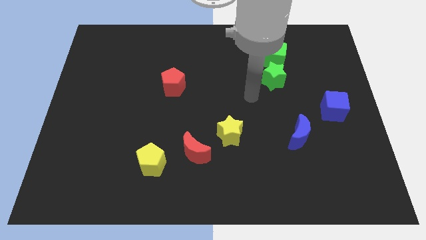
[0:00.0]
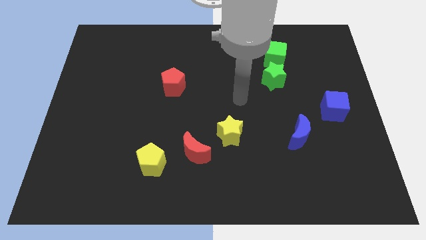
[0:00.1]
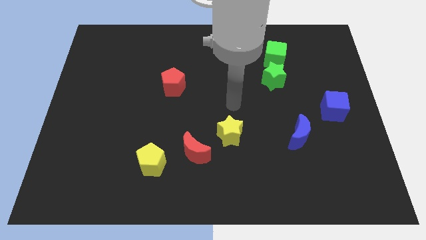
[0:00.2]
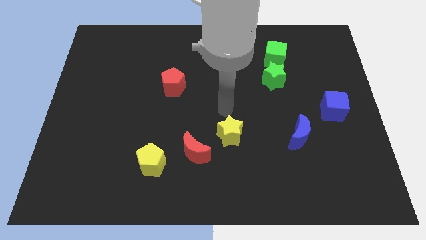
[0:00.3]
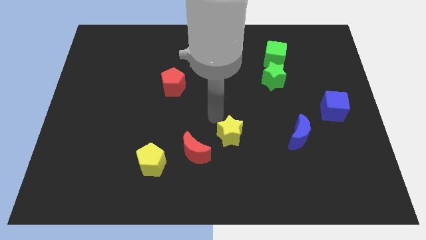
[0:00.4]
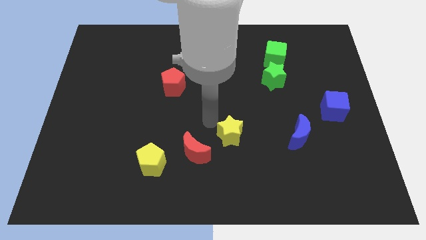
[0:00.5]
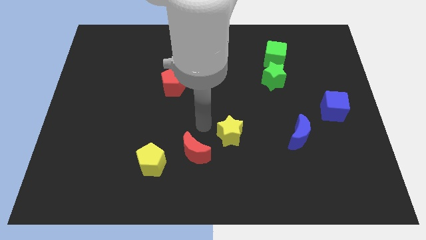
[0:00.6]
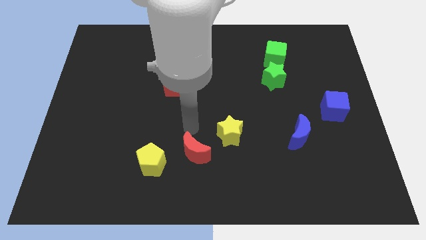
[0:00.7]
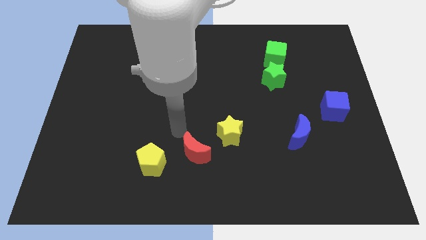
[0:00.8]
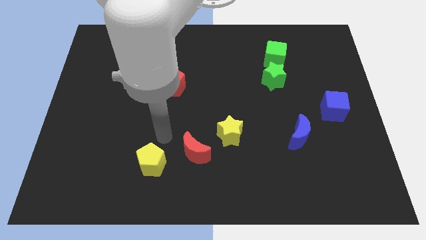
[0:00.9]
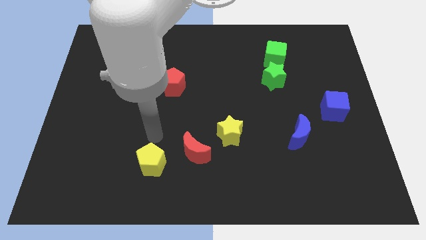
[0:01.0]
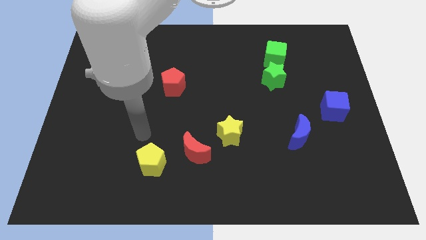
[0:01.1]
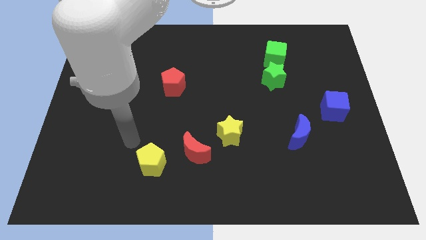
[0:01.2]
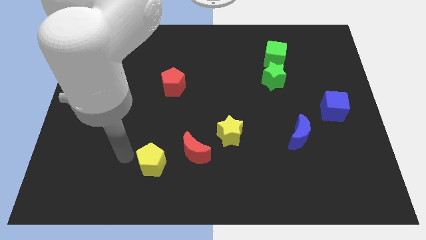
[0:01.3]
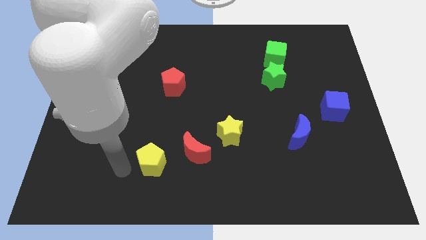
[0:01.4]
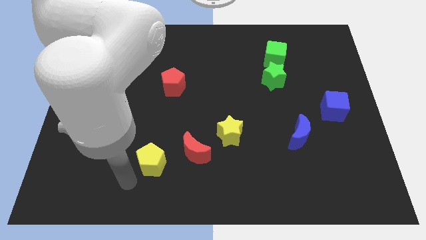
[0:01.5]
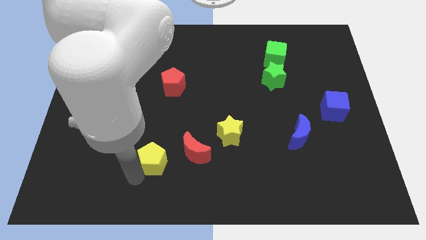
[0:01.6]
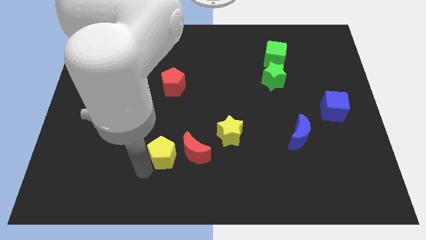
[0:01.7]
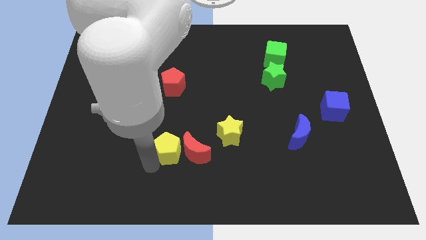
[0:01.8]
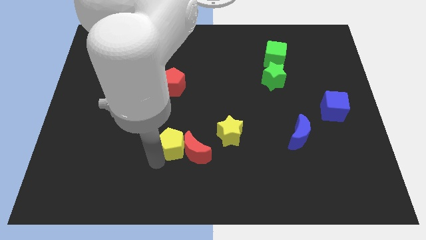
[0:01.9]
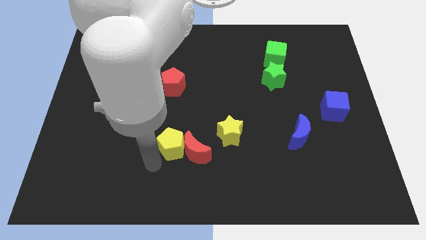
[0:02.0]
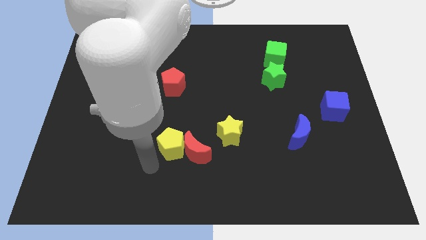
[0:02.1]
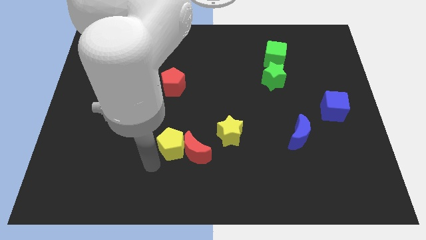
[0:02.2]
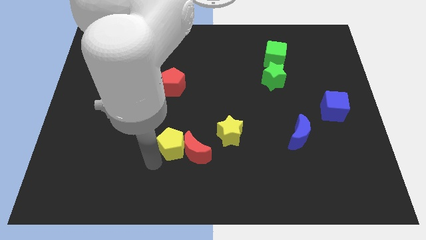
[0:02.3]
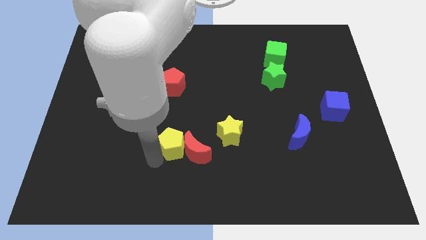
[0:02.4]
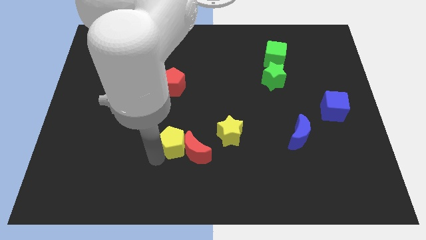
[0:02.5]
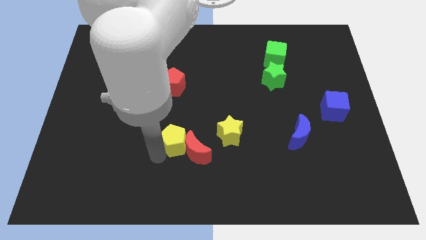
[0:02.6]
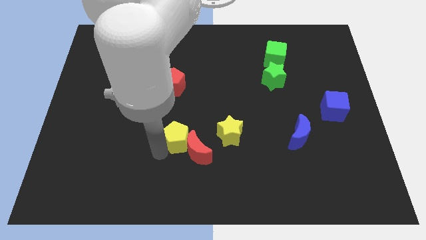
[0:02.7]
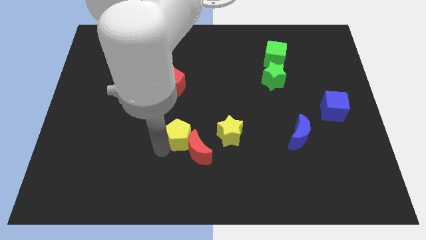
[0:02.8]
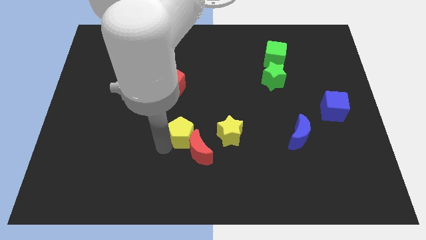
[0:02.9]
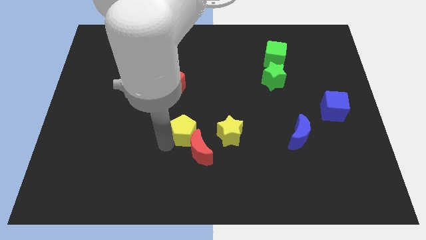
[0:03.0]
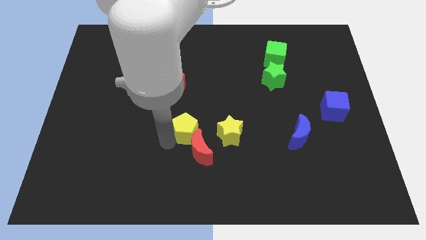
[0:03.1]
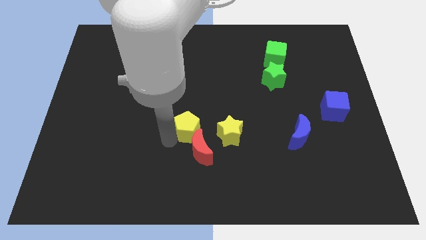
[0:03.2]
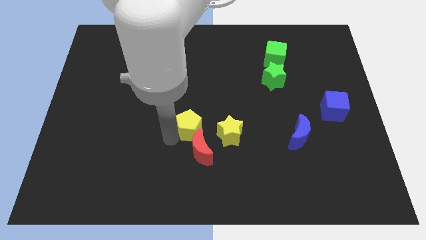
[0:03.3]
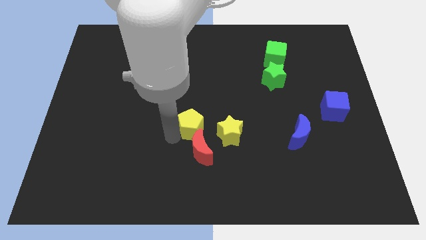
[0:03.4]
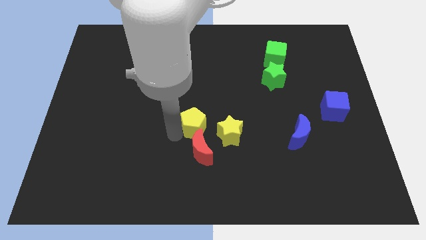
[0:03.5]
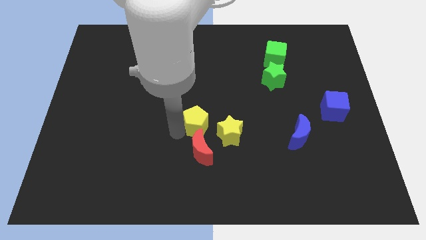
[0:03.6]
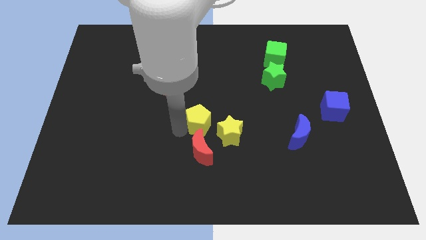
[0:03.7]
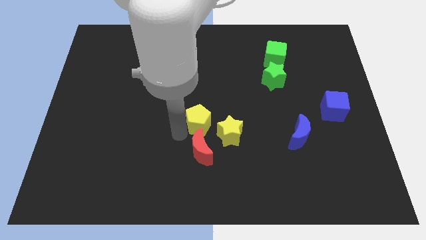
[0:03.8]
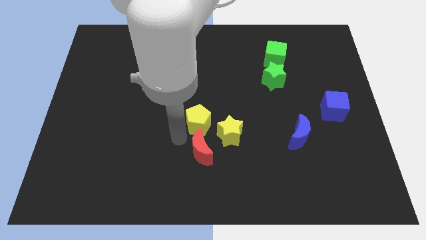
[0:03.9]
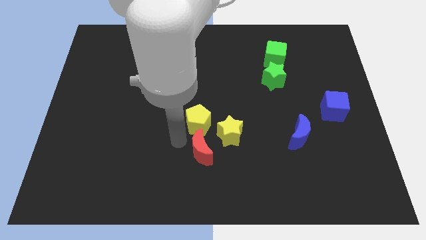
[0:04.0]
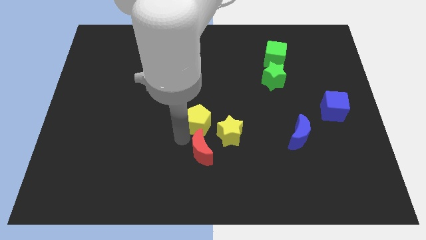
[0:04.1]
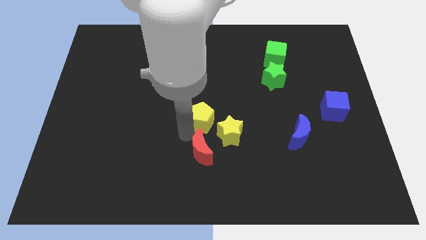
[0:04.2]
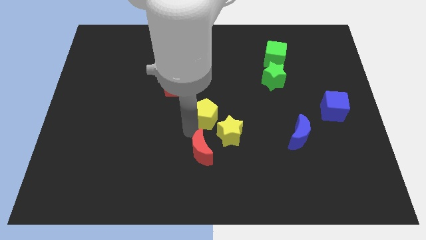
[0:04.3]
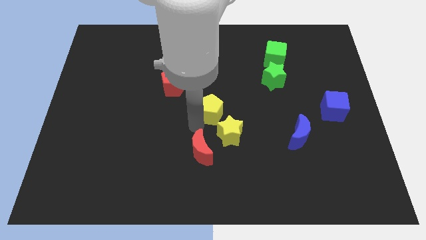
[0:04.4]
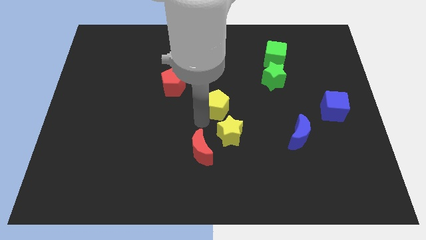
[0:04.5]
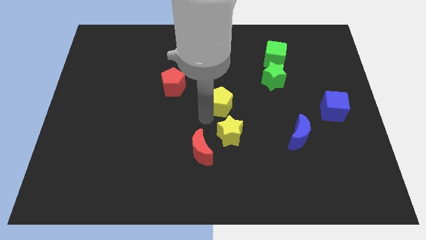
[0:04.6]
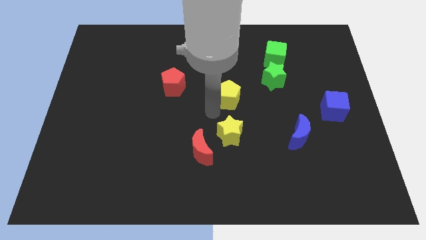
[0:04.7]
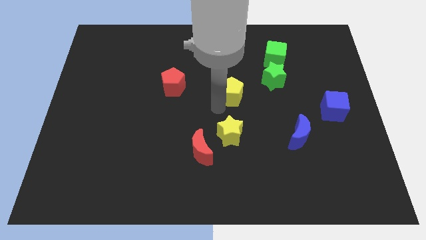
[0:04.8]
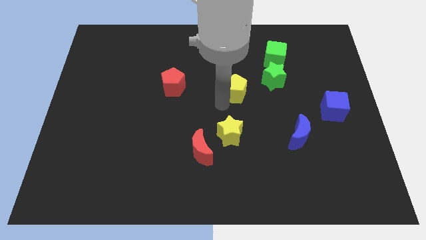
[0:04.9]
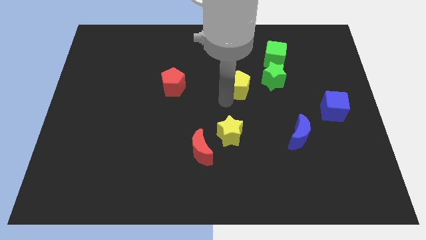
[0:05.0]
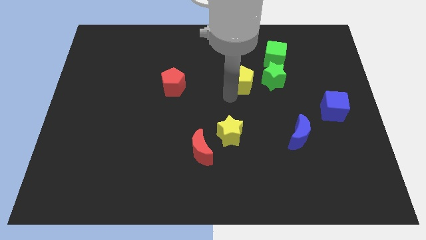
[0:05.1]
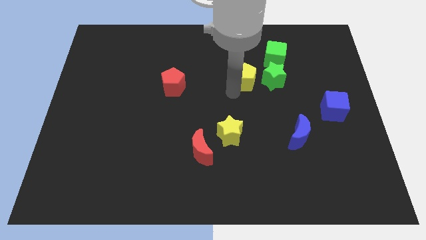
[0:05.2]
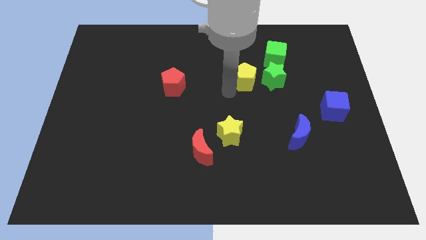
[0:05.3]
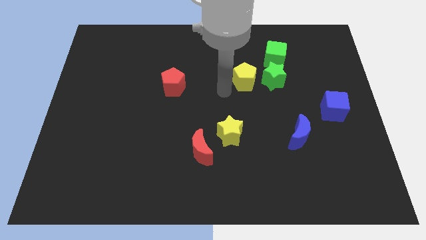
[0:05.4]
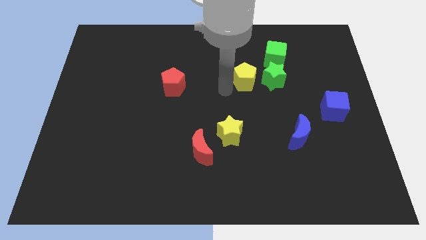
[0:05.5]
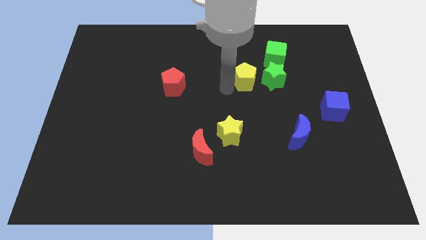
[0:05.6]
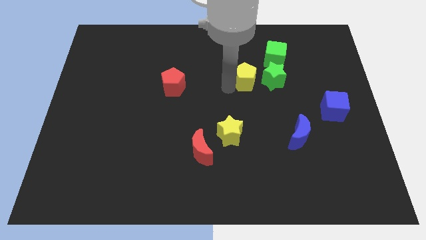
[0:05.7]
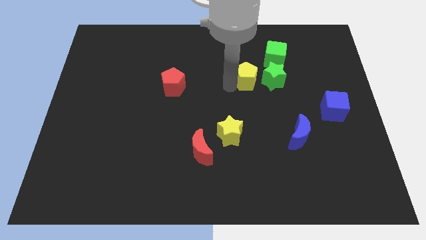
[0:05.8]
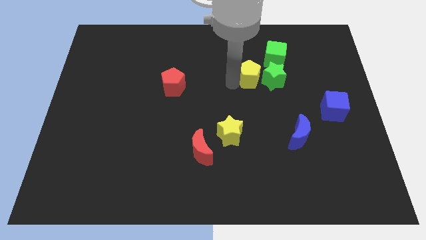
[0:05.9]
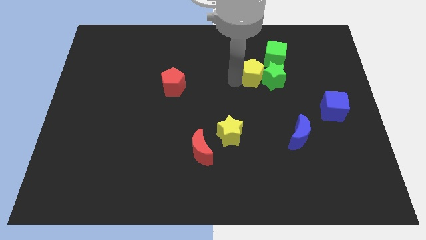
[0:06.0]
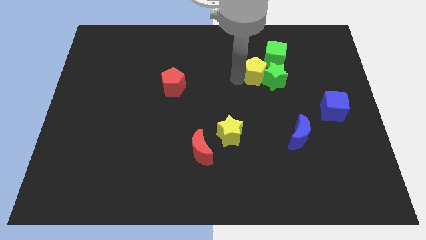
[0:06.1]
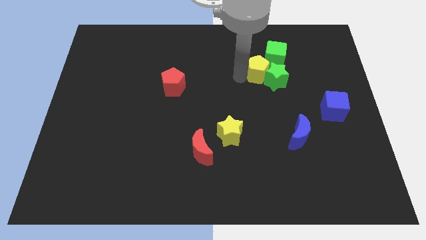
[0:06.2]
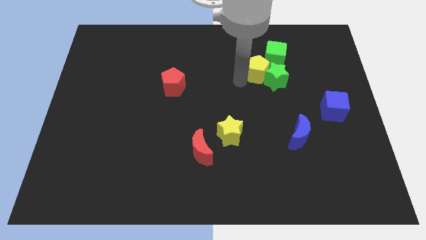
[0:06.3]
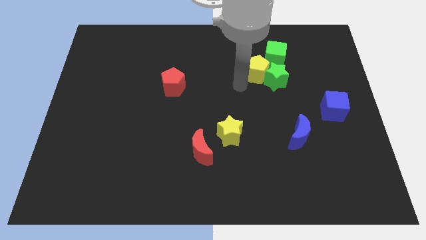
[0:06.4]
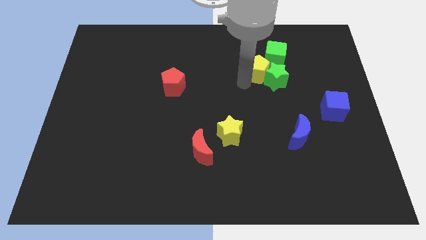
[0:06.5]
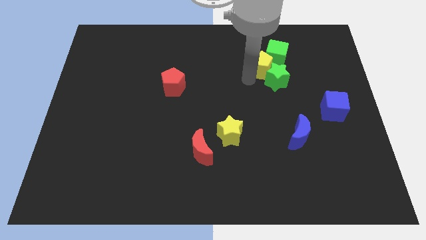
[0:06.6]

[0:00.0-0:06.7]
slide the yellow pentagon next to the green cube
